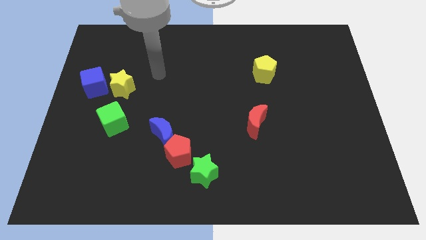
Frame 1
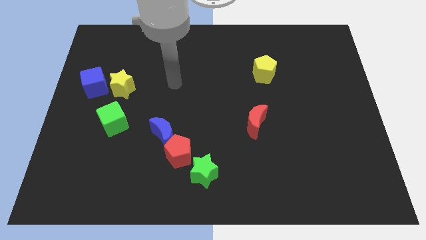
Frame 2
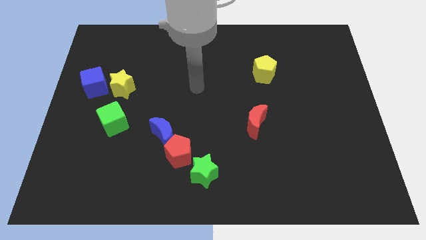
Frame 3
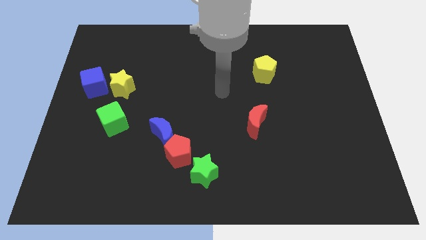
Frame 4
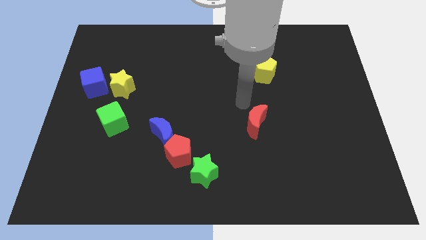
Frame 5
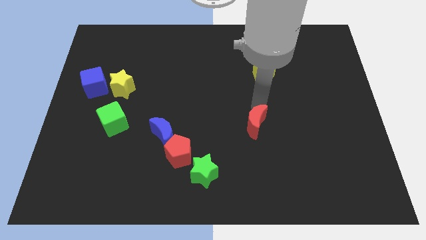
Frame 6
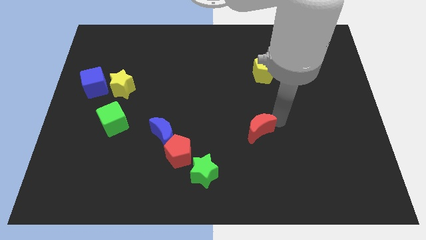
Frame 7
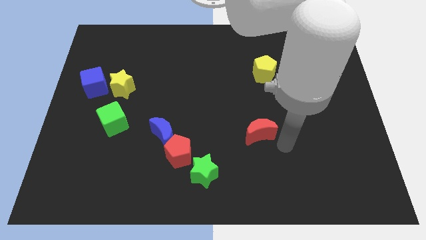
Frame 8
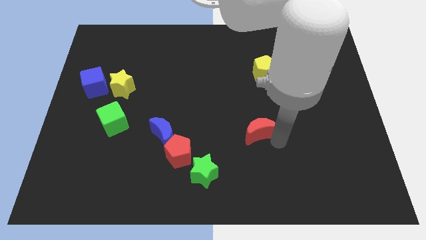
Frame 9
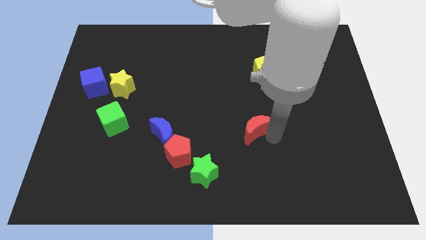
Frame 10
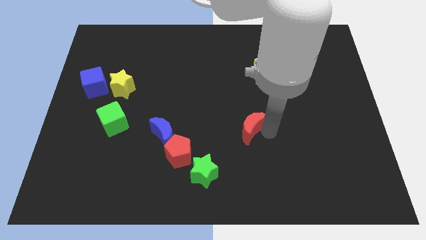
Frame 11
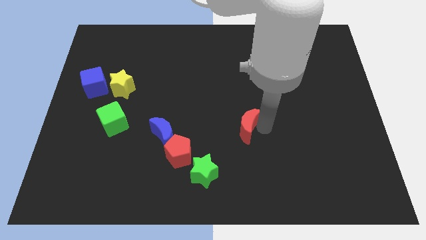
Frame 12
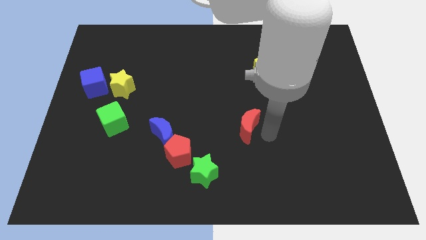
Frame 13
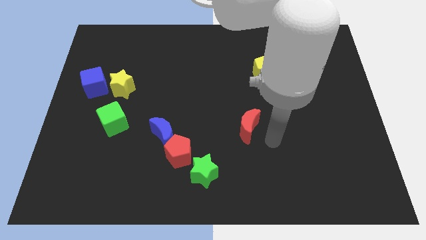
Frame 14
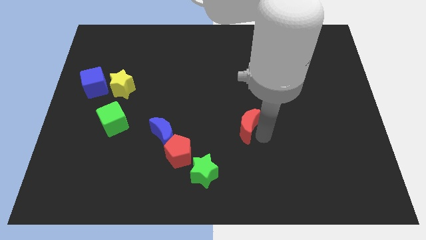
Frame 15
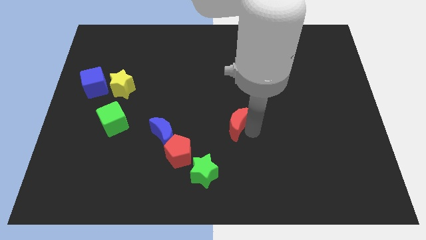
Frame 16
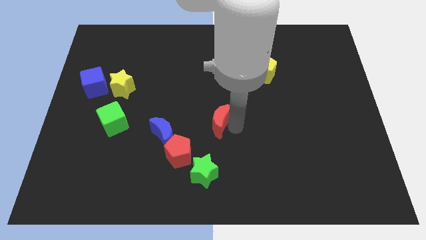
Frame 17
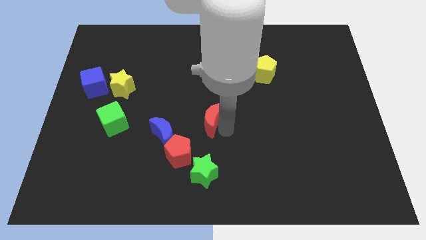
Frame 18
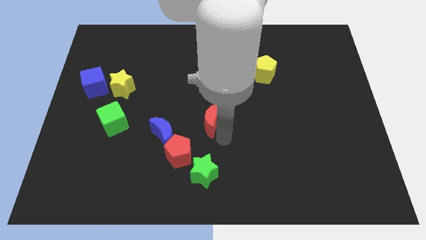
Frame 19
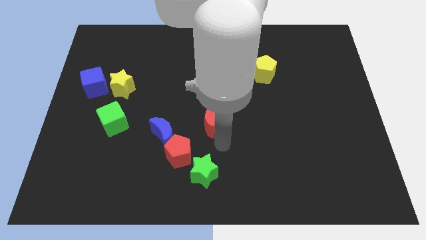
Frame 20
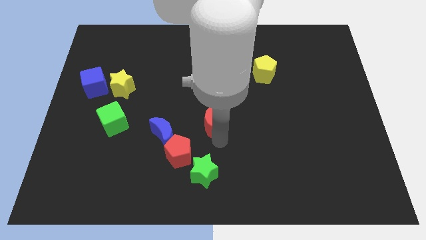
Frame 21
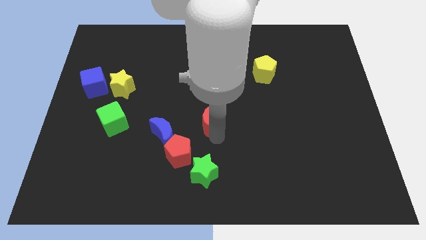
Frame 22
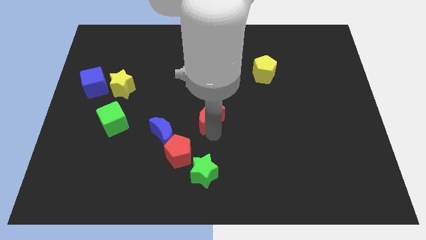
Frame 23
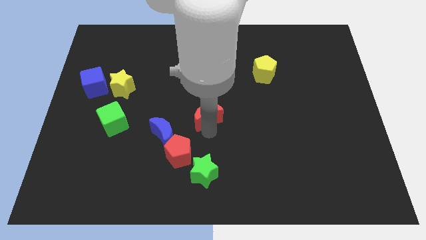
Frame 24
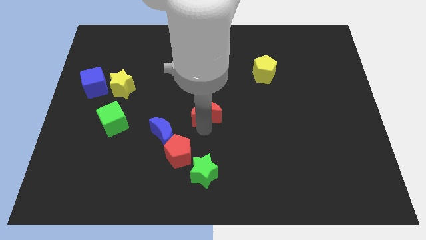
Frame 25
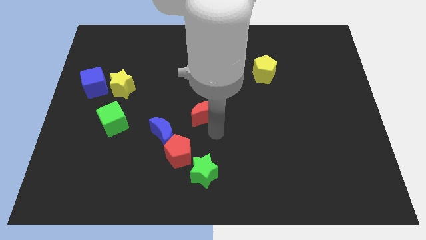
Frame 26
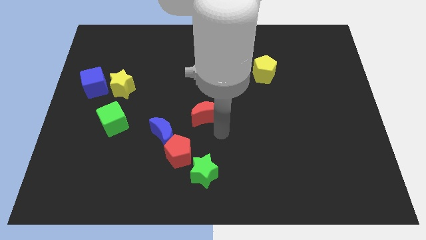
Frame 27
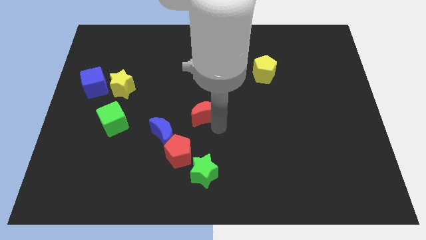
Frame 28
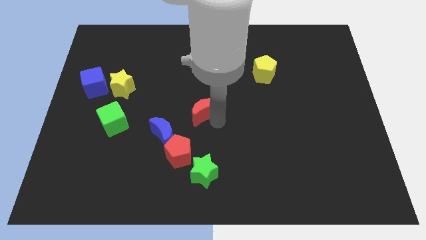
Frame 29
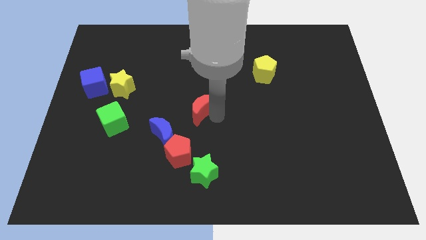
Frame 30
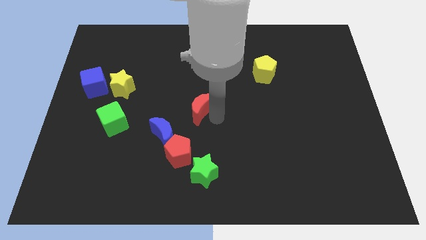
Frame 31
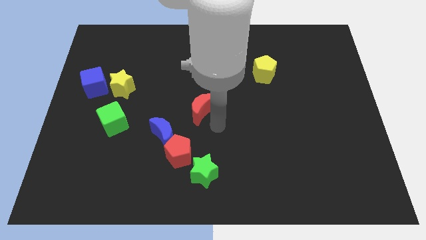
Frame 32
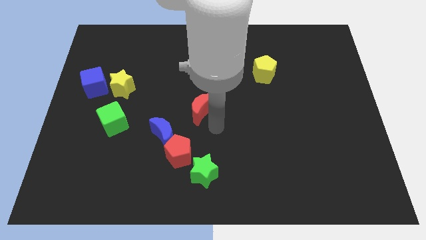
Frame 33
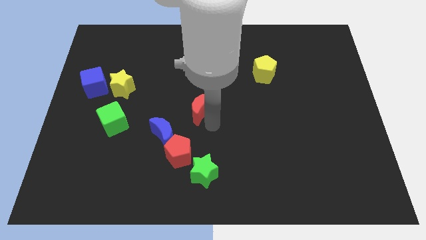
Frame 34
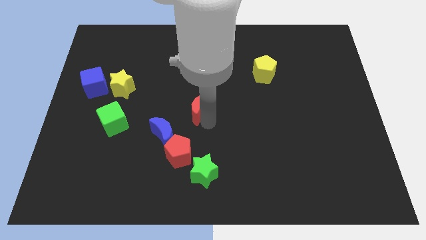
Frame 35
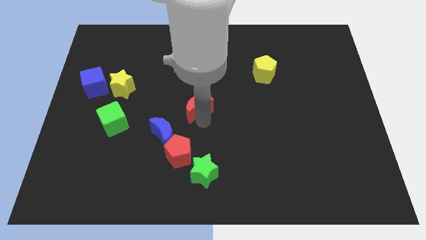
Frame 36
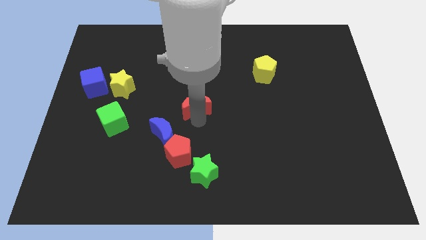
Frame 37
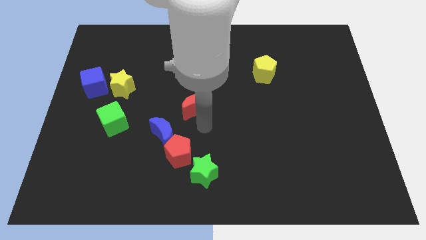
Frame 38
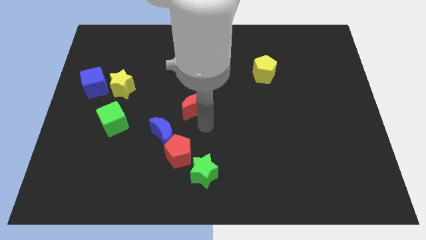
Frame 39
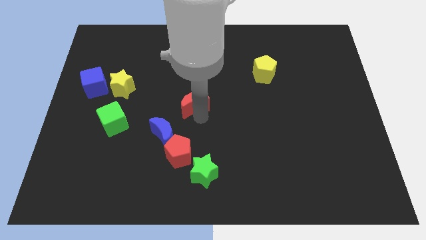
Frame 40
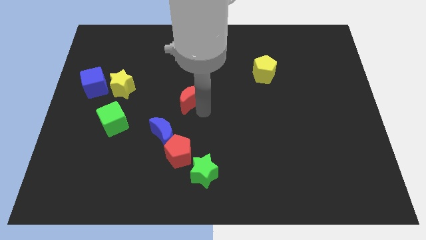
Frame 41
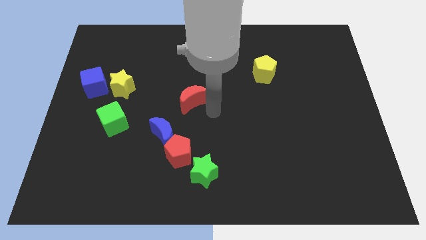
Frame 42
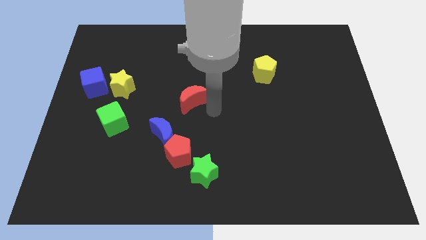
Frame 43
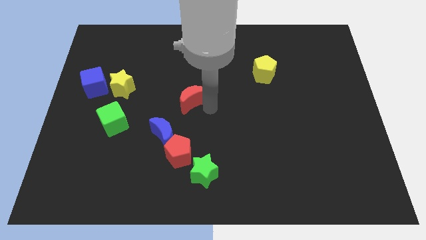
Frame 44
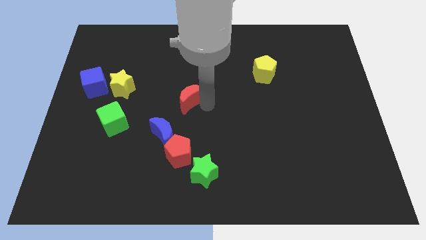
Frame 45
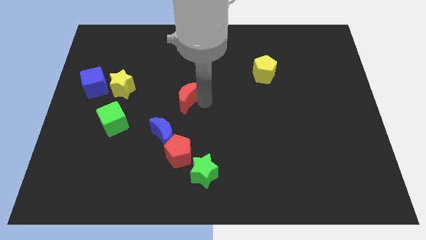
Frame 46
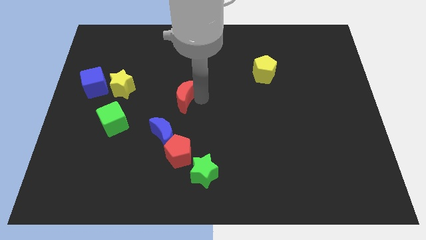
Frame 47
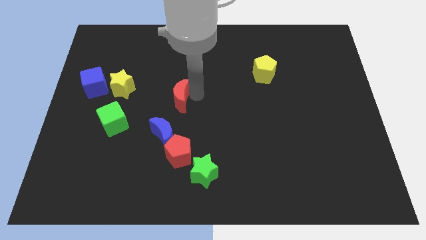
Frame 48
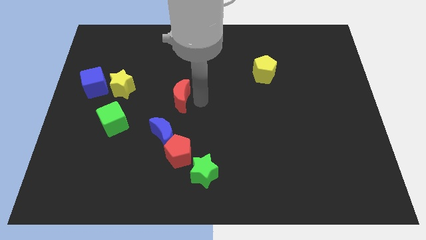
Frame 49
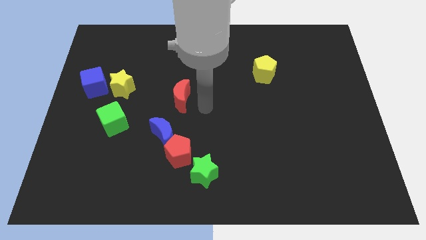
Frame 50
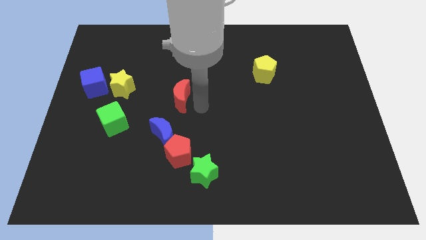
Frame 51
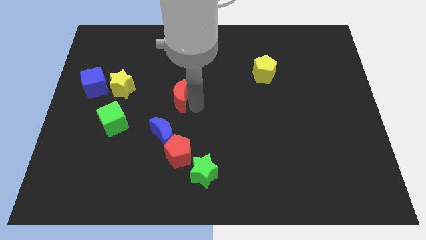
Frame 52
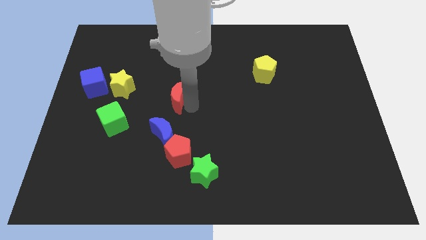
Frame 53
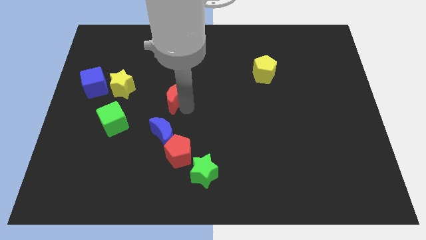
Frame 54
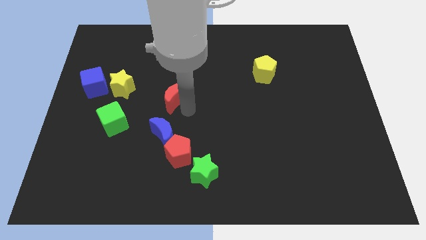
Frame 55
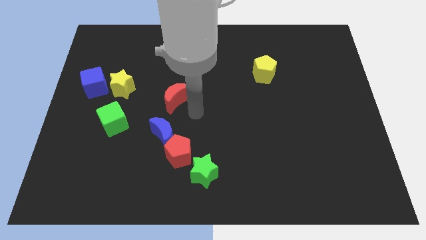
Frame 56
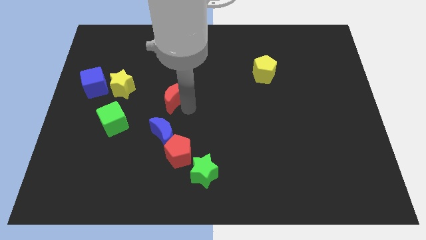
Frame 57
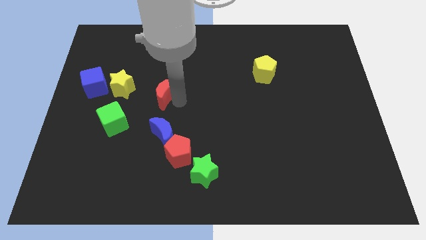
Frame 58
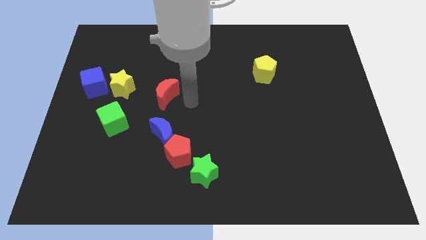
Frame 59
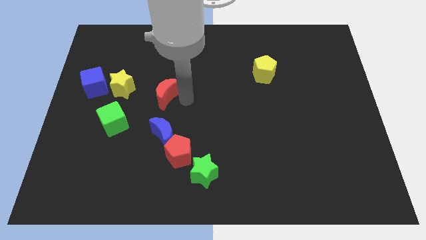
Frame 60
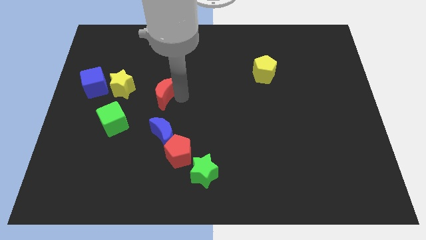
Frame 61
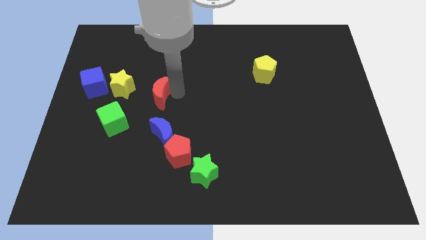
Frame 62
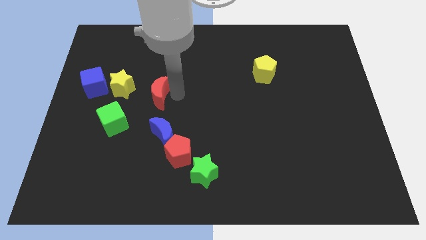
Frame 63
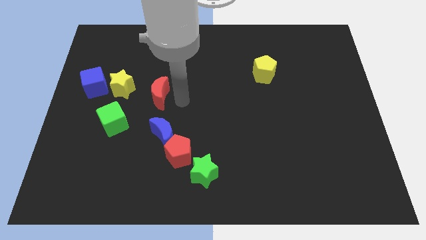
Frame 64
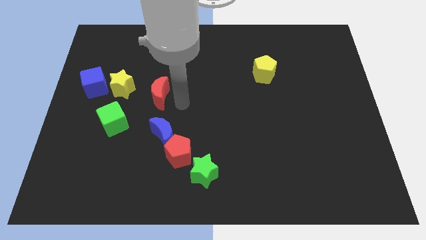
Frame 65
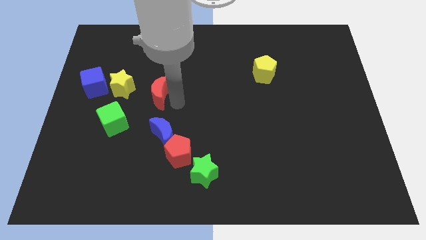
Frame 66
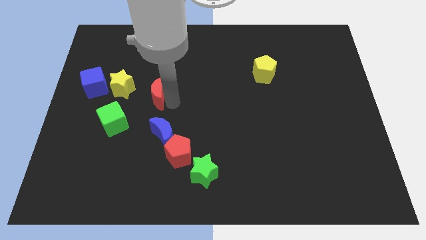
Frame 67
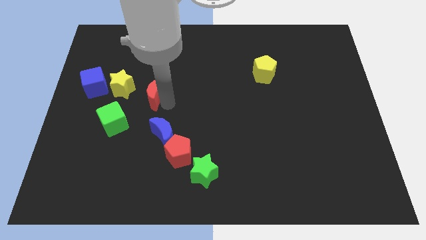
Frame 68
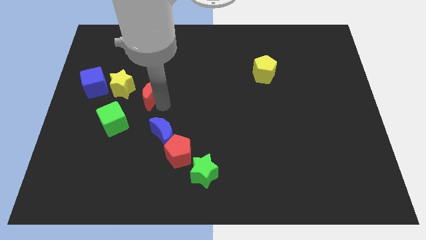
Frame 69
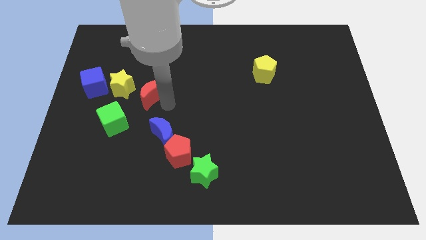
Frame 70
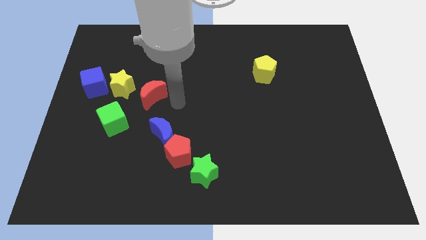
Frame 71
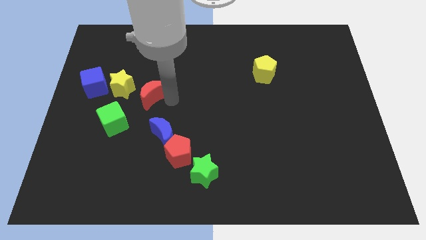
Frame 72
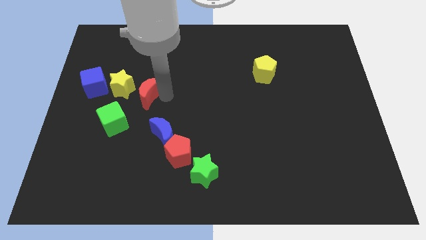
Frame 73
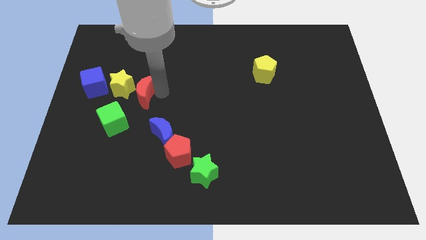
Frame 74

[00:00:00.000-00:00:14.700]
move the red moon to the yellow star

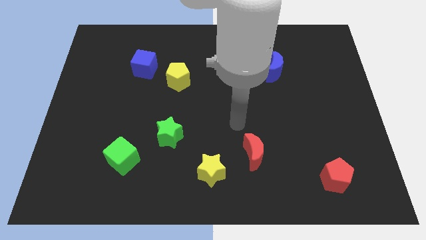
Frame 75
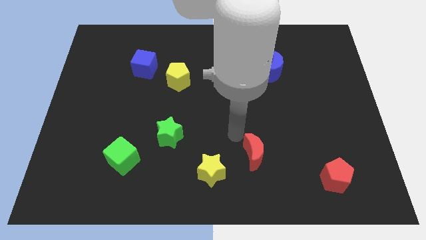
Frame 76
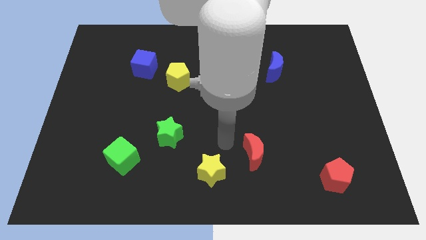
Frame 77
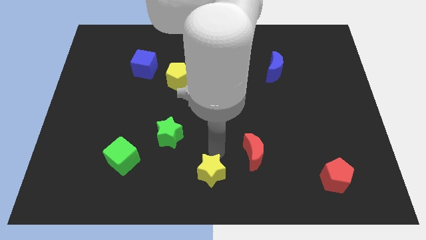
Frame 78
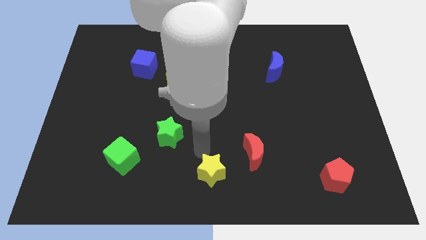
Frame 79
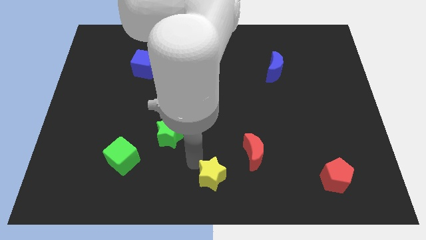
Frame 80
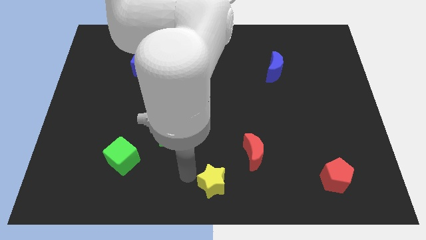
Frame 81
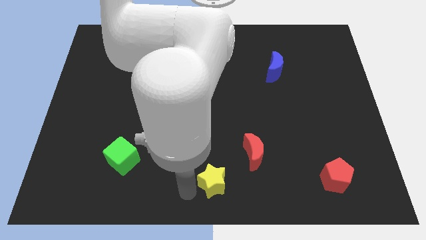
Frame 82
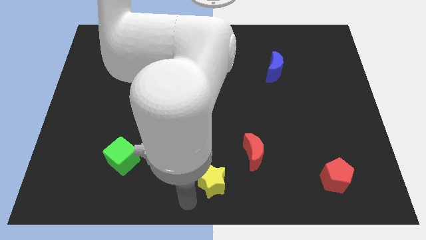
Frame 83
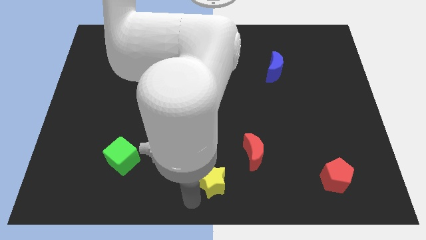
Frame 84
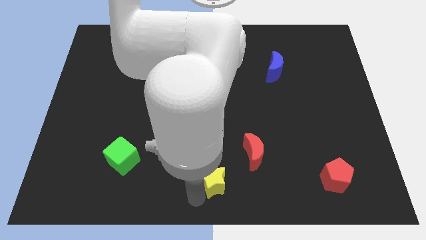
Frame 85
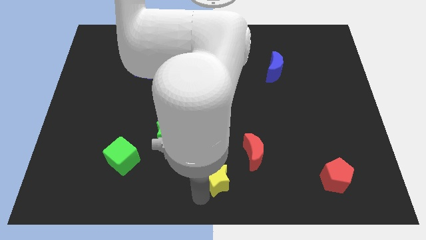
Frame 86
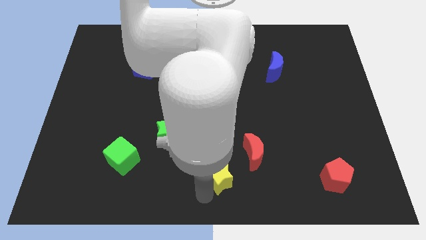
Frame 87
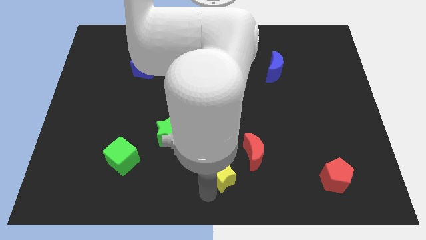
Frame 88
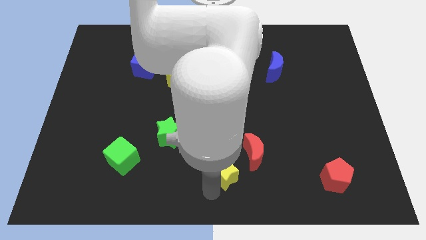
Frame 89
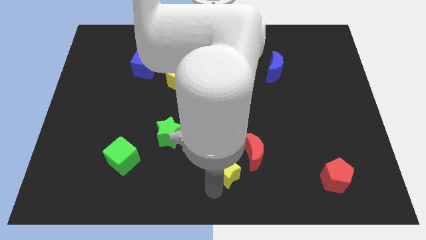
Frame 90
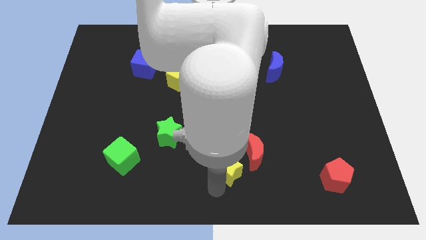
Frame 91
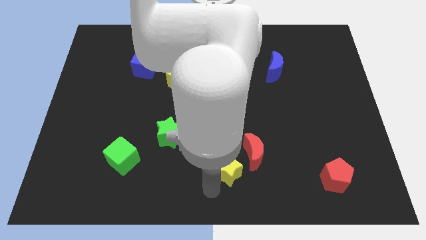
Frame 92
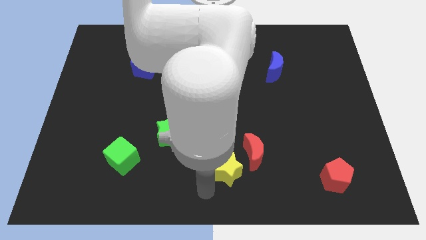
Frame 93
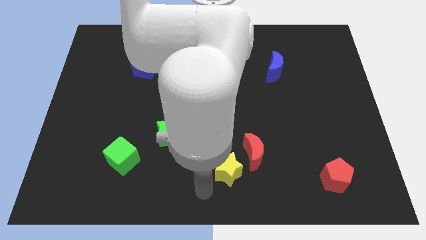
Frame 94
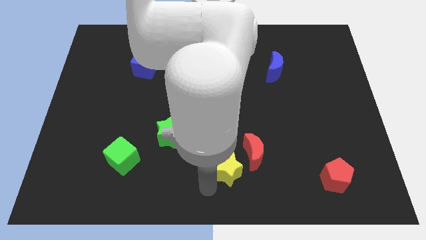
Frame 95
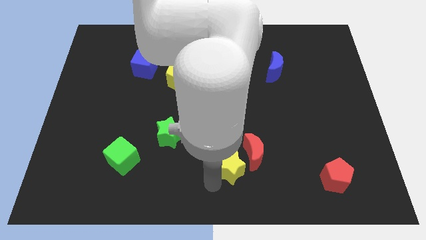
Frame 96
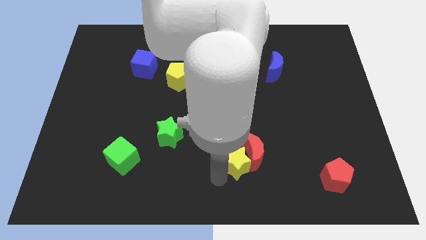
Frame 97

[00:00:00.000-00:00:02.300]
move the yellow star close to the red moon
